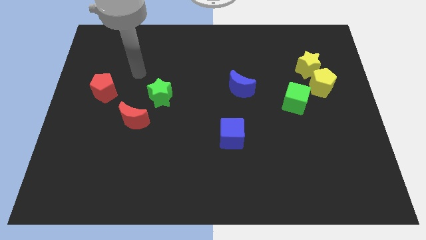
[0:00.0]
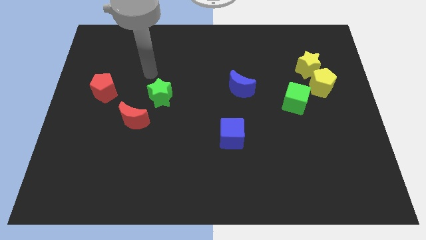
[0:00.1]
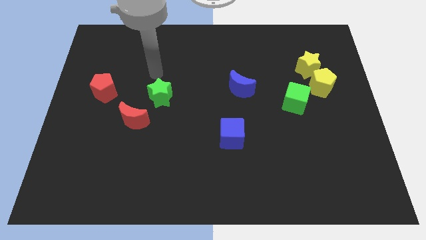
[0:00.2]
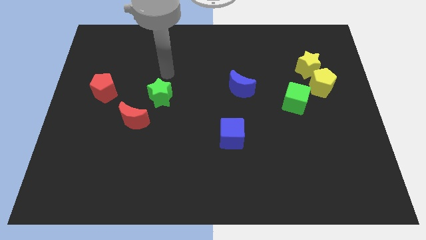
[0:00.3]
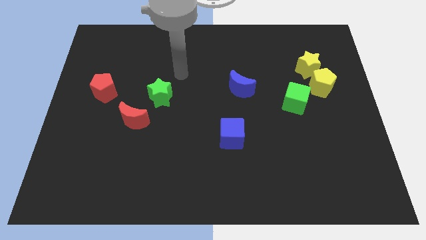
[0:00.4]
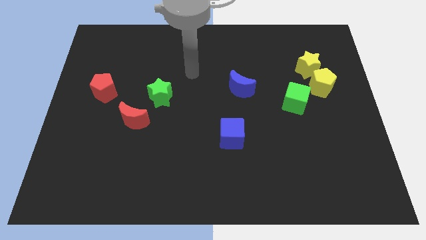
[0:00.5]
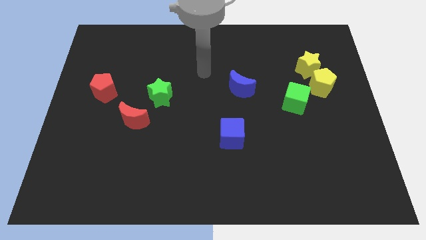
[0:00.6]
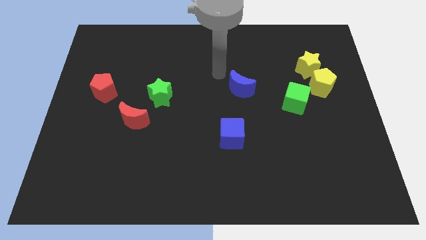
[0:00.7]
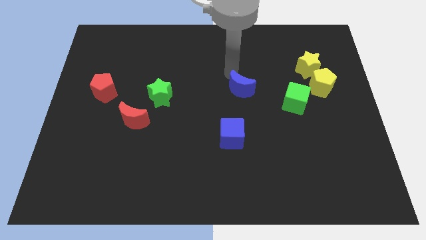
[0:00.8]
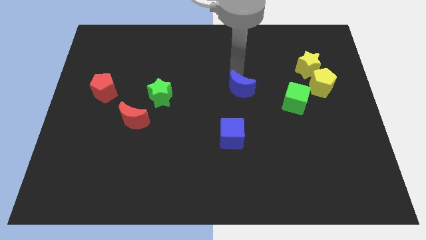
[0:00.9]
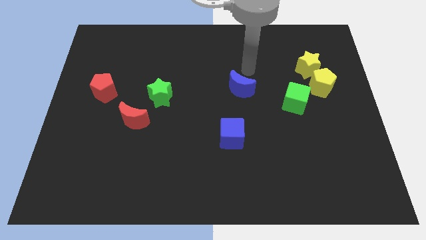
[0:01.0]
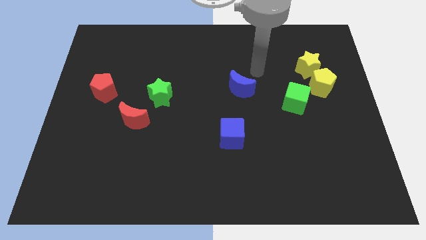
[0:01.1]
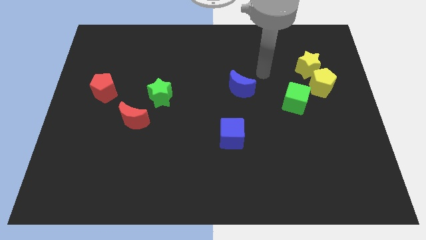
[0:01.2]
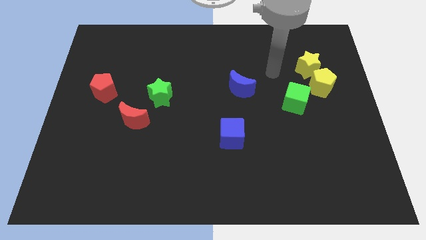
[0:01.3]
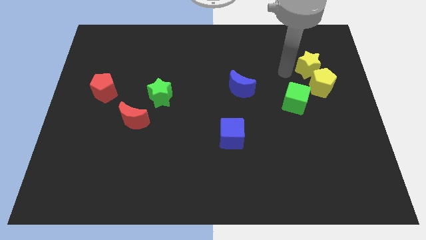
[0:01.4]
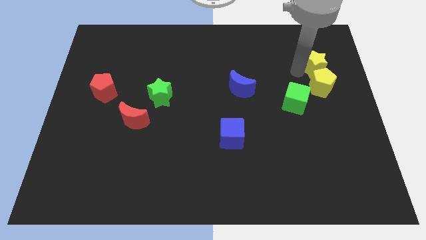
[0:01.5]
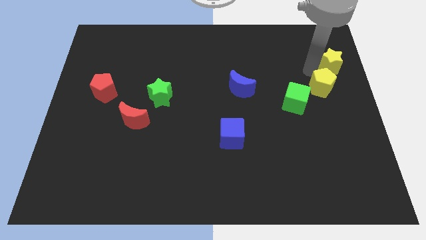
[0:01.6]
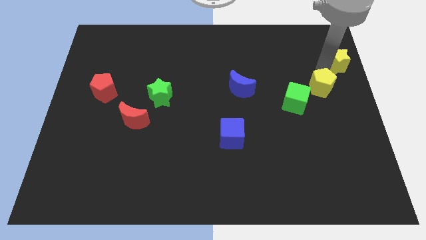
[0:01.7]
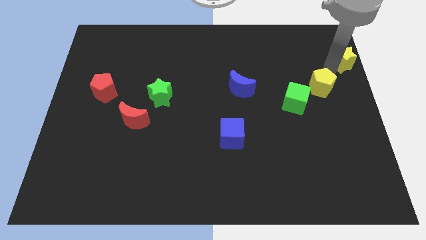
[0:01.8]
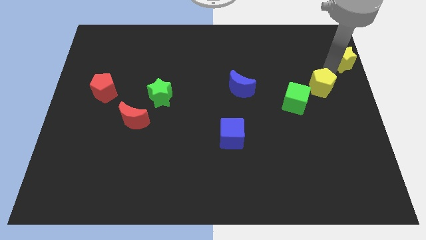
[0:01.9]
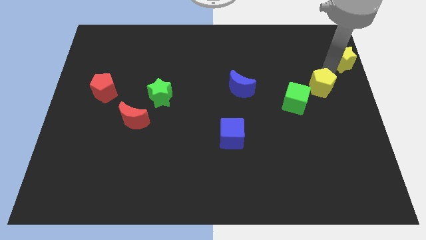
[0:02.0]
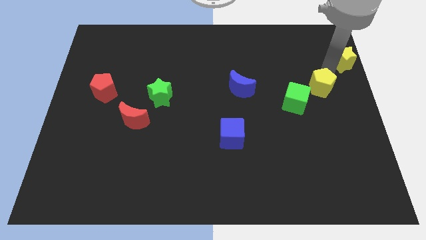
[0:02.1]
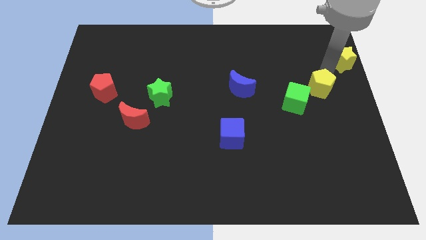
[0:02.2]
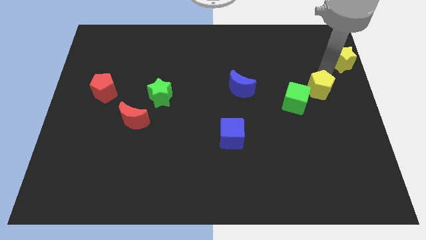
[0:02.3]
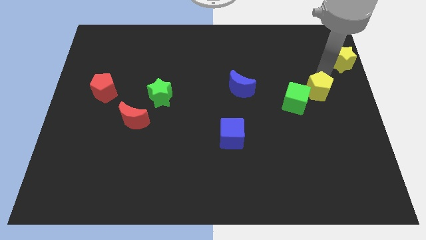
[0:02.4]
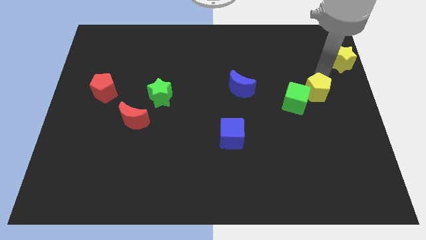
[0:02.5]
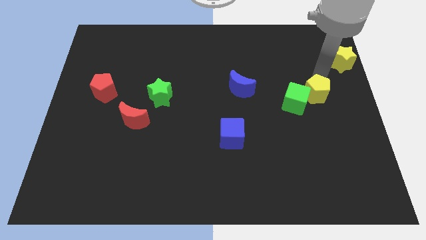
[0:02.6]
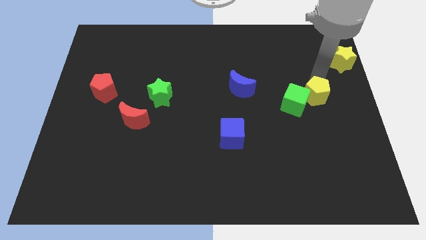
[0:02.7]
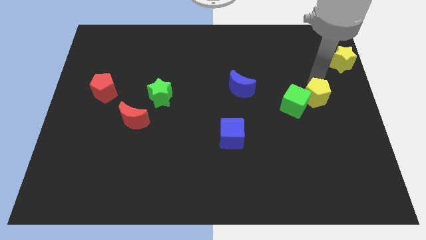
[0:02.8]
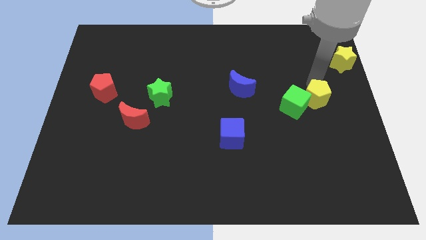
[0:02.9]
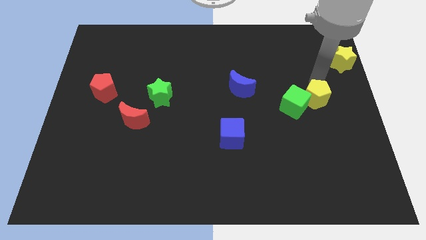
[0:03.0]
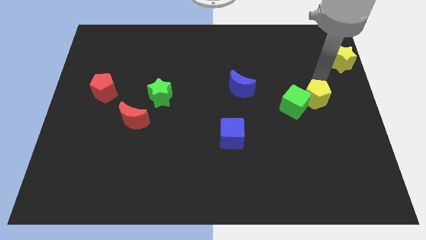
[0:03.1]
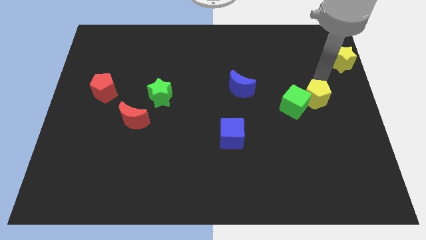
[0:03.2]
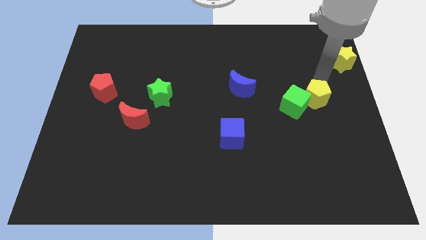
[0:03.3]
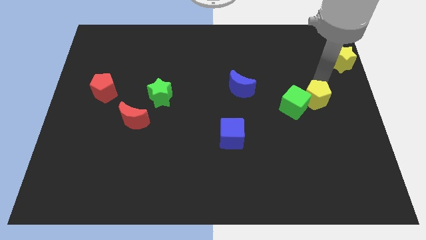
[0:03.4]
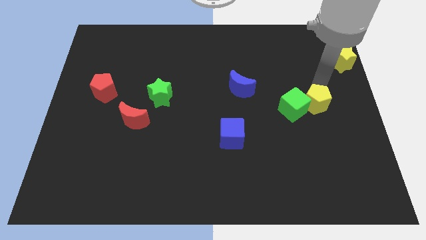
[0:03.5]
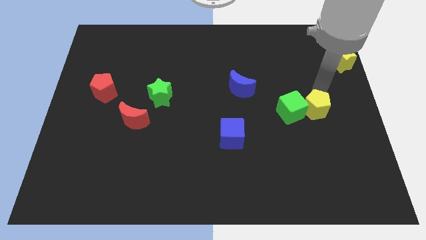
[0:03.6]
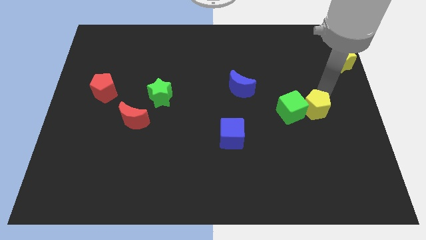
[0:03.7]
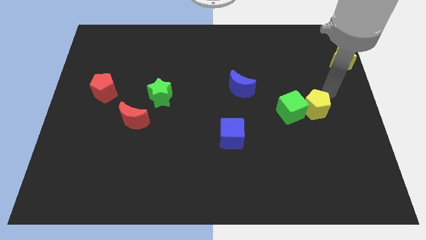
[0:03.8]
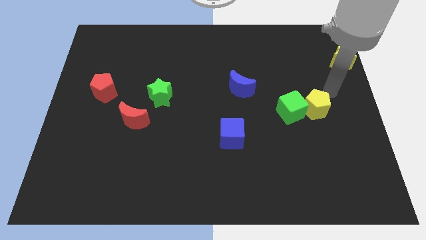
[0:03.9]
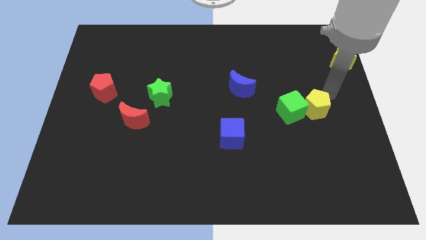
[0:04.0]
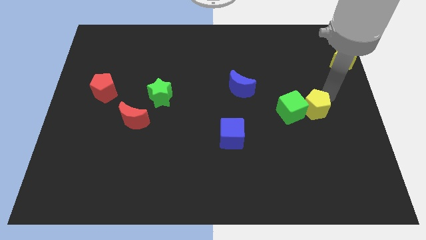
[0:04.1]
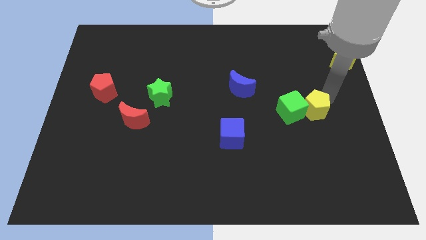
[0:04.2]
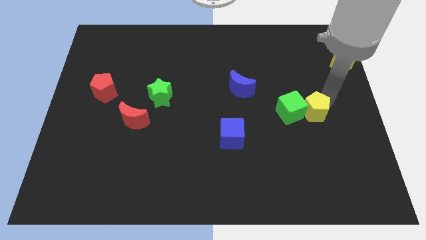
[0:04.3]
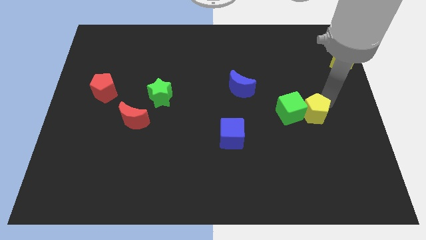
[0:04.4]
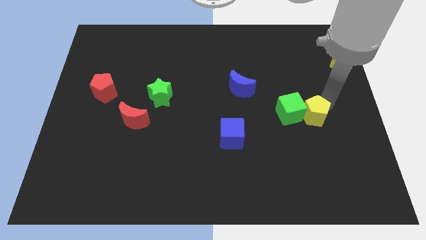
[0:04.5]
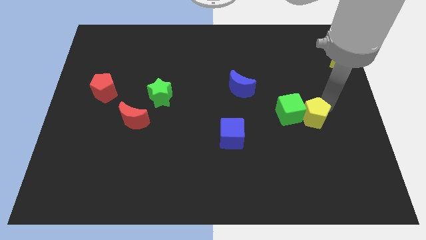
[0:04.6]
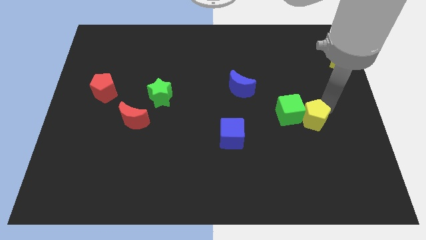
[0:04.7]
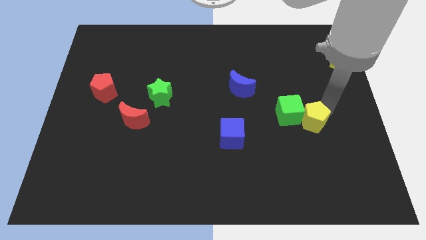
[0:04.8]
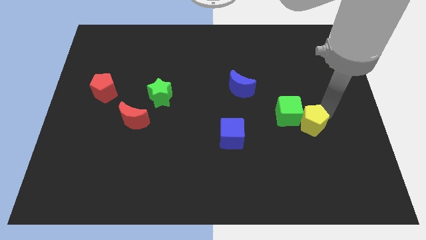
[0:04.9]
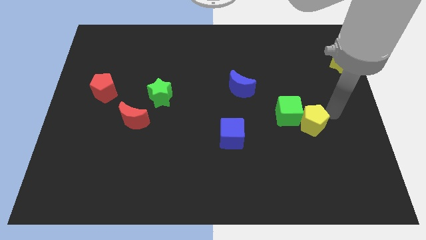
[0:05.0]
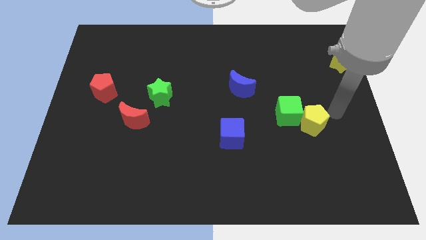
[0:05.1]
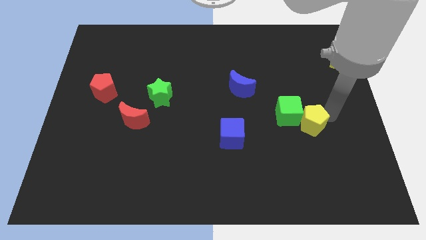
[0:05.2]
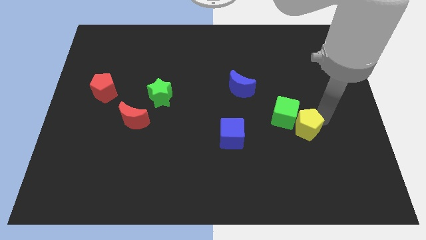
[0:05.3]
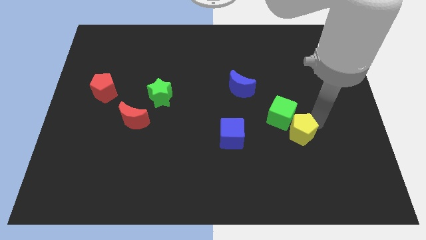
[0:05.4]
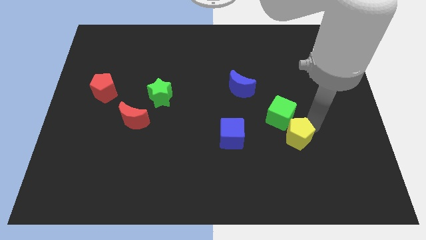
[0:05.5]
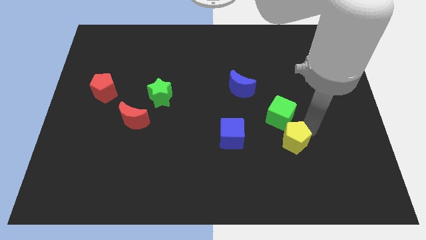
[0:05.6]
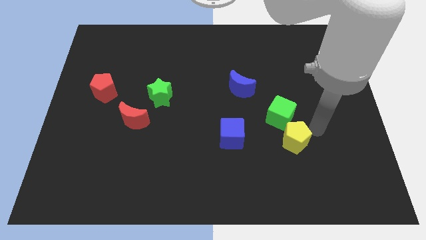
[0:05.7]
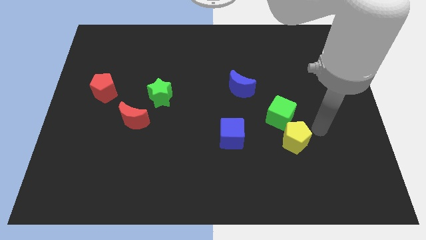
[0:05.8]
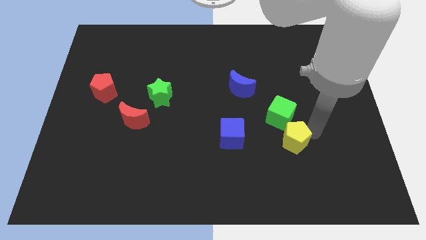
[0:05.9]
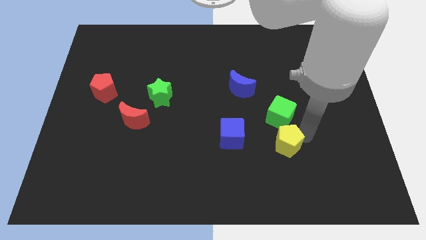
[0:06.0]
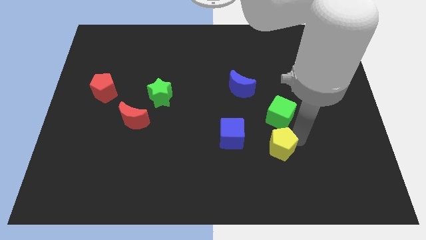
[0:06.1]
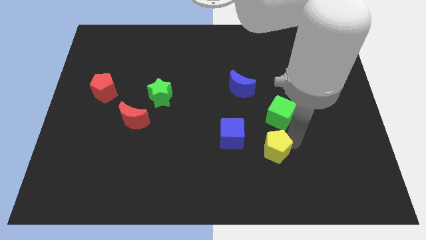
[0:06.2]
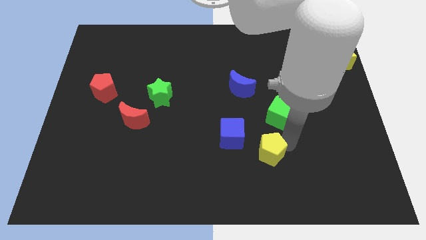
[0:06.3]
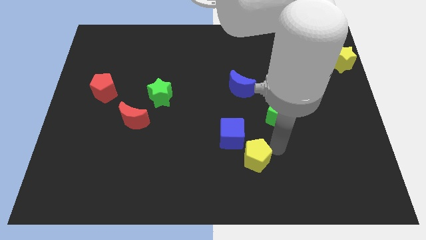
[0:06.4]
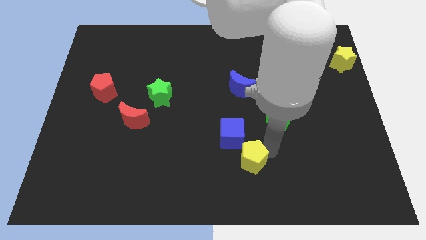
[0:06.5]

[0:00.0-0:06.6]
move the yellow pentagon below the blue cube
